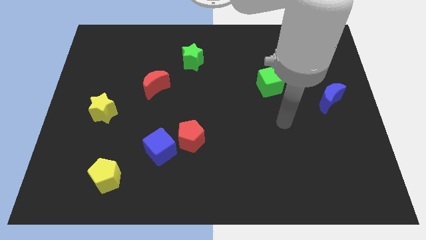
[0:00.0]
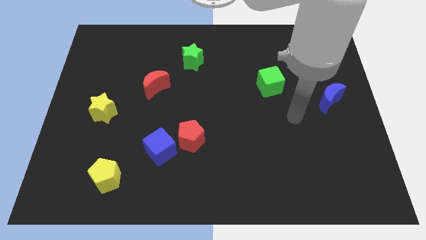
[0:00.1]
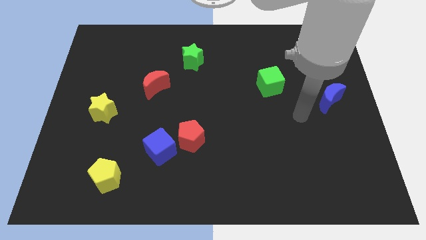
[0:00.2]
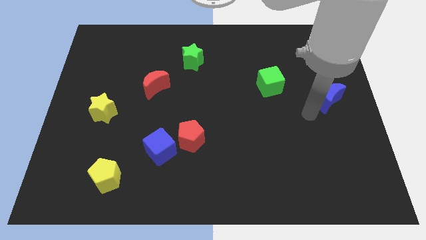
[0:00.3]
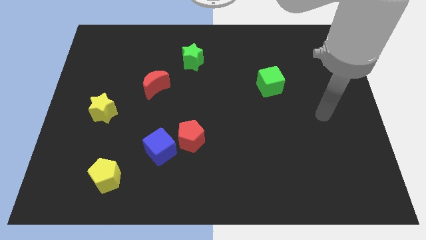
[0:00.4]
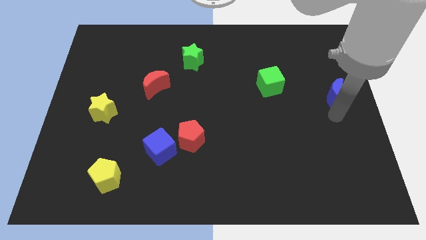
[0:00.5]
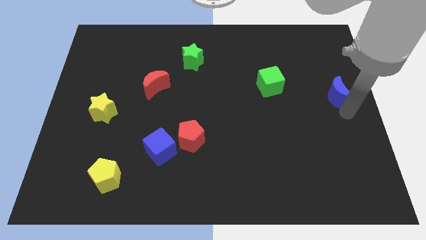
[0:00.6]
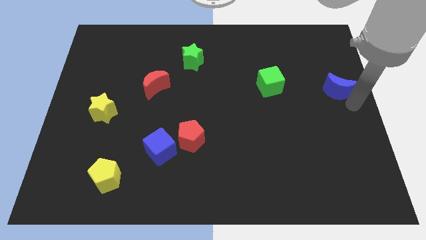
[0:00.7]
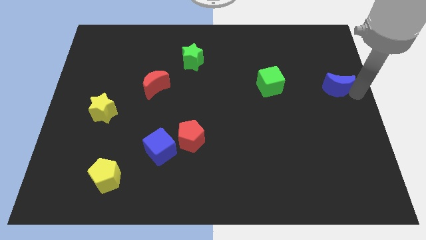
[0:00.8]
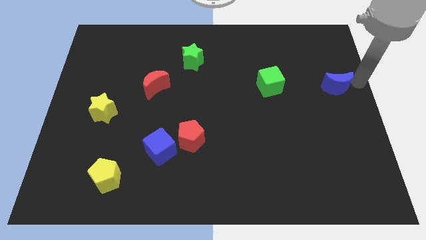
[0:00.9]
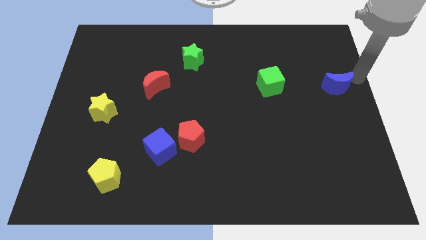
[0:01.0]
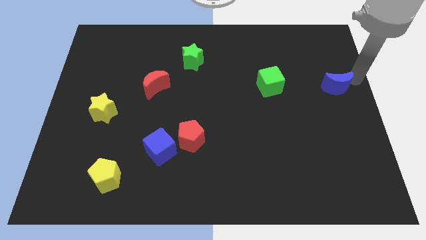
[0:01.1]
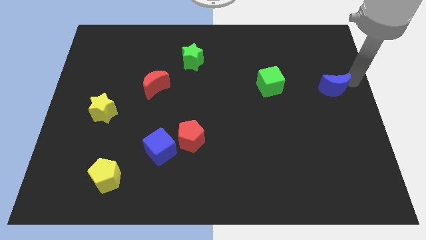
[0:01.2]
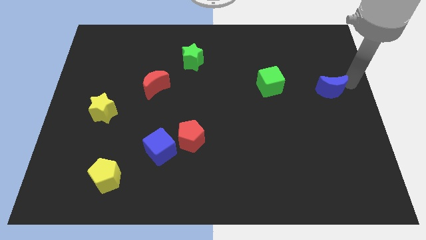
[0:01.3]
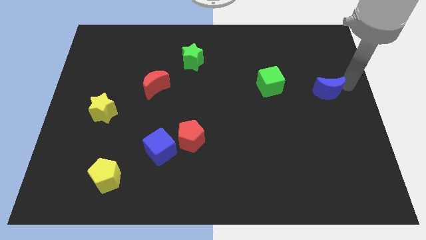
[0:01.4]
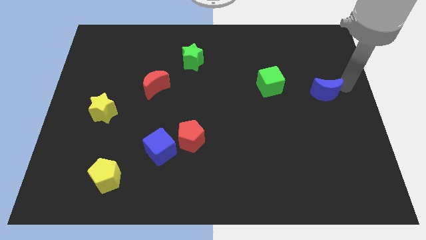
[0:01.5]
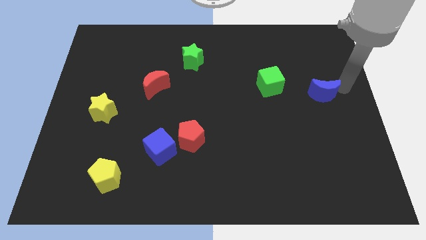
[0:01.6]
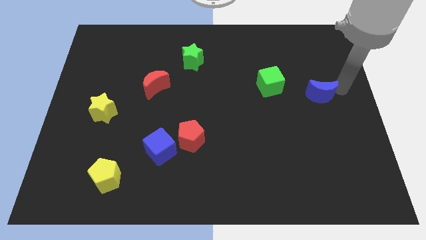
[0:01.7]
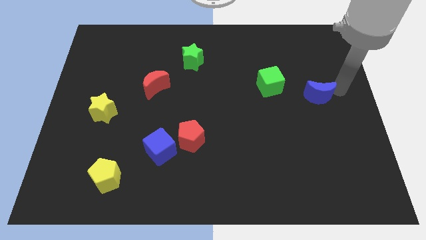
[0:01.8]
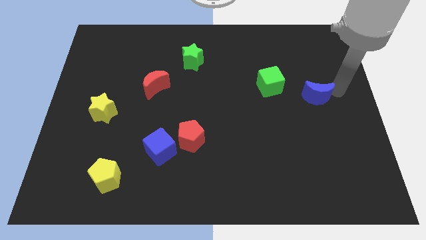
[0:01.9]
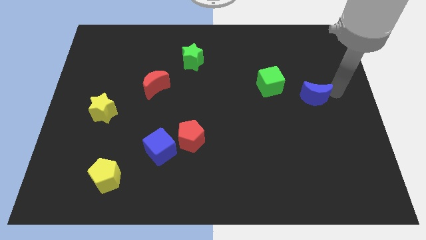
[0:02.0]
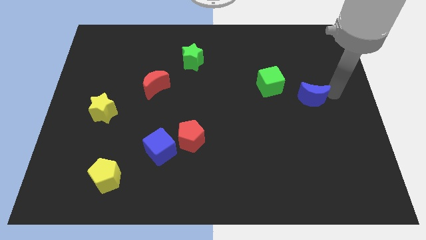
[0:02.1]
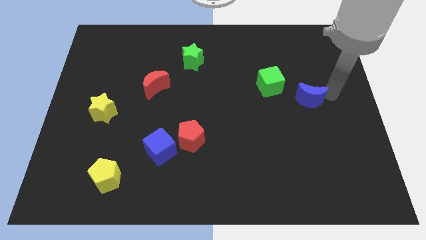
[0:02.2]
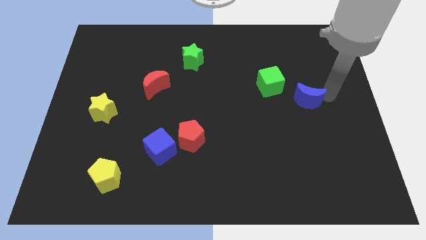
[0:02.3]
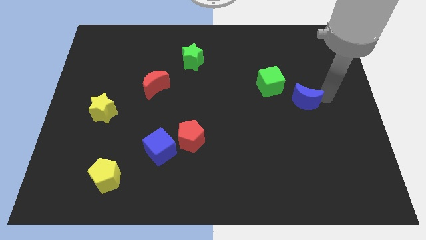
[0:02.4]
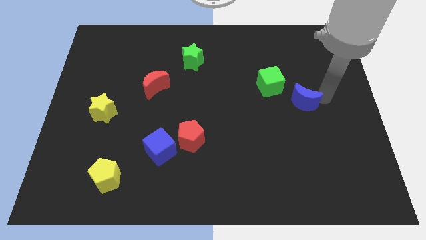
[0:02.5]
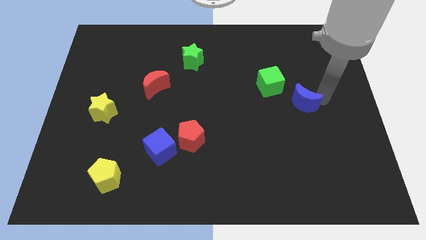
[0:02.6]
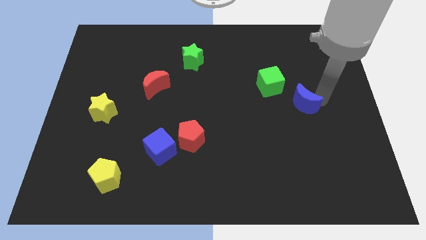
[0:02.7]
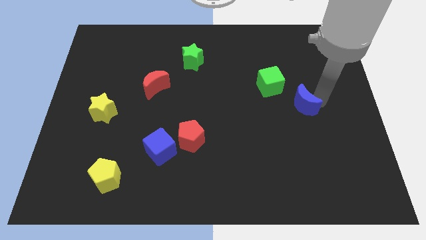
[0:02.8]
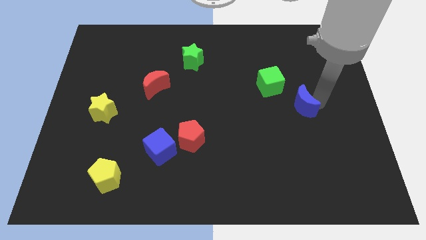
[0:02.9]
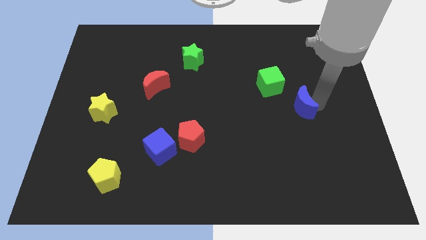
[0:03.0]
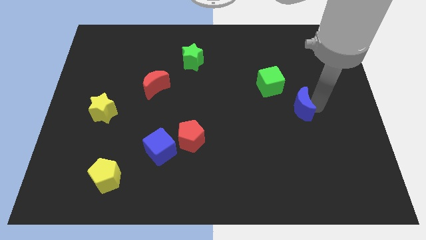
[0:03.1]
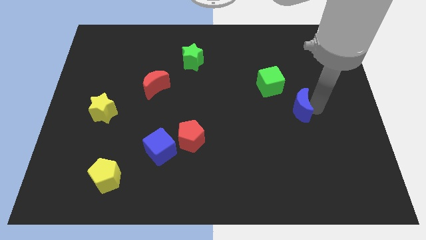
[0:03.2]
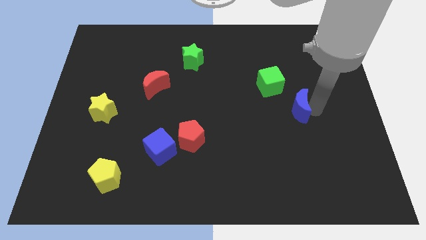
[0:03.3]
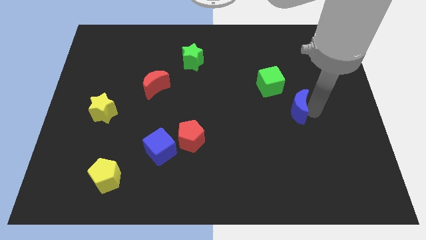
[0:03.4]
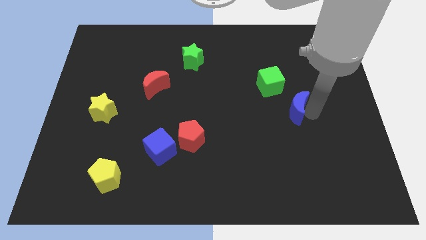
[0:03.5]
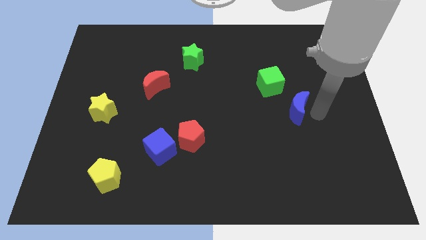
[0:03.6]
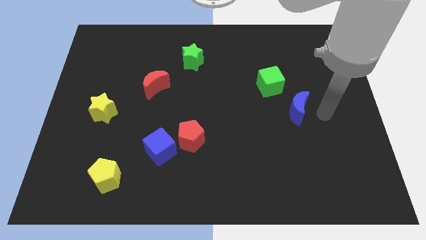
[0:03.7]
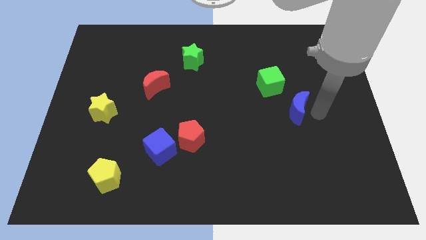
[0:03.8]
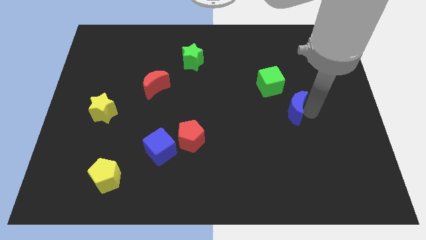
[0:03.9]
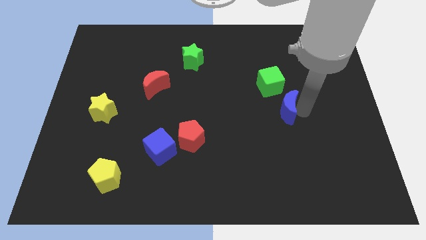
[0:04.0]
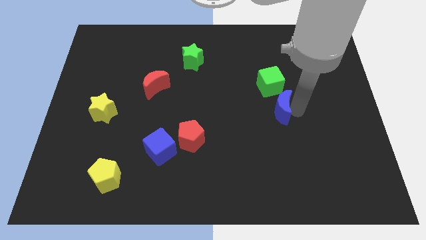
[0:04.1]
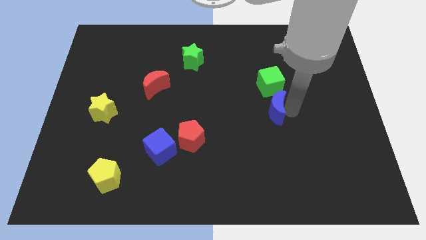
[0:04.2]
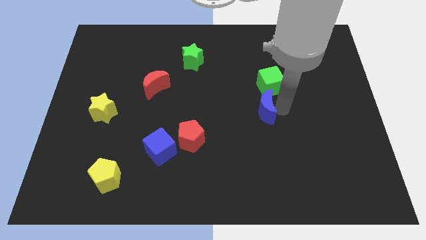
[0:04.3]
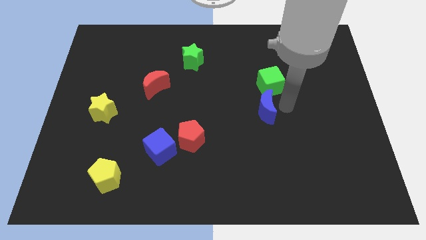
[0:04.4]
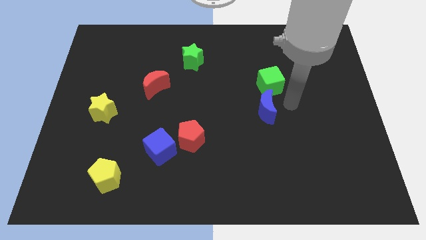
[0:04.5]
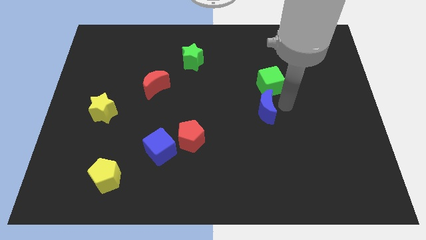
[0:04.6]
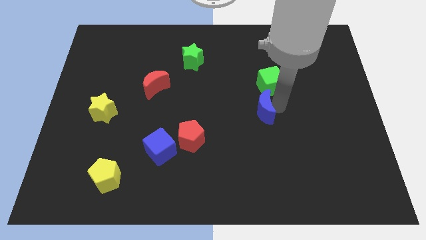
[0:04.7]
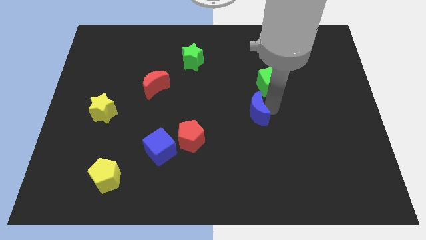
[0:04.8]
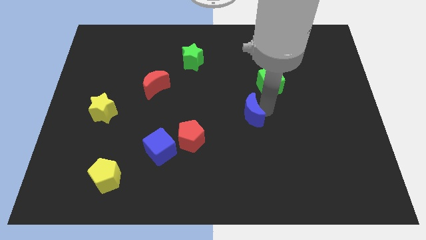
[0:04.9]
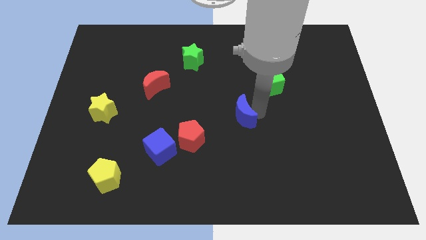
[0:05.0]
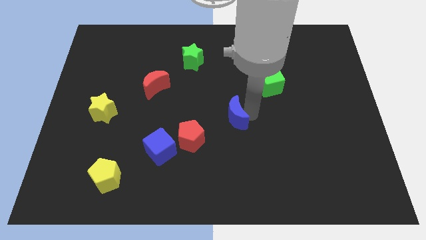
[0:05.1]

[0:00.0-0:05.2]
move the blue moon to the top right of the red pentagon

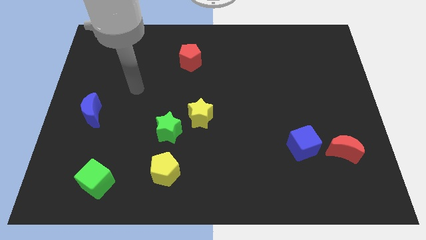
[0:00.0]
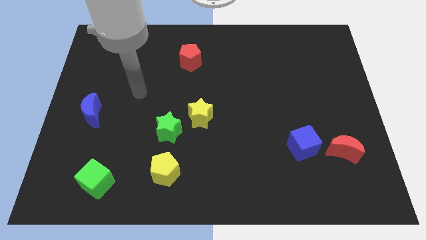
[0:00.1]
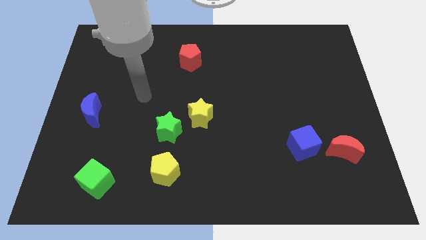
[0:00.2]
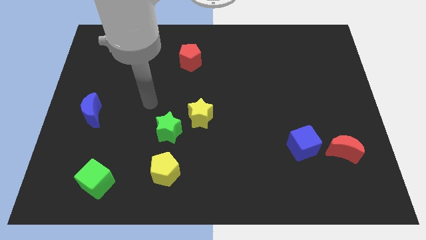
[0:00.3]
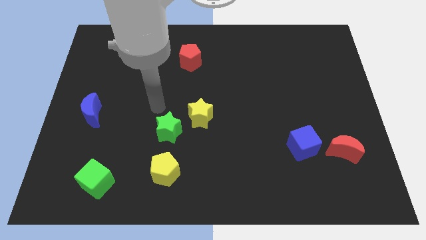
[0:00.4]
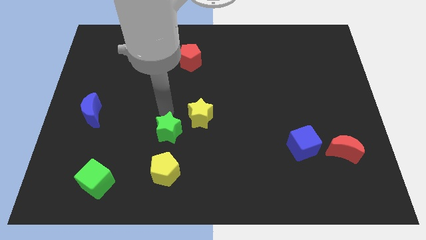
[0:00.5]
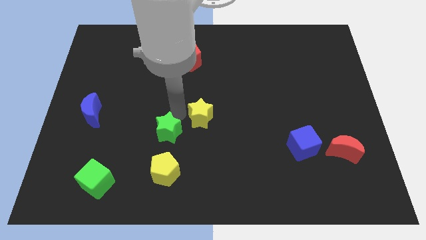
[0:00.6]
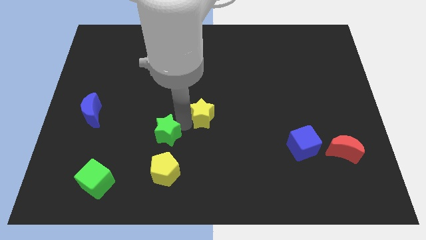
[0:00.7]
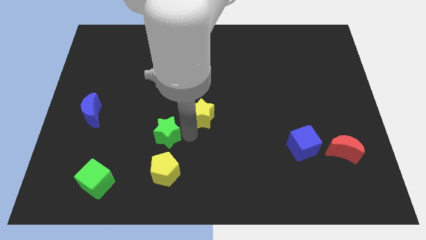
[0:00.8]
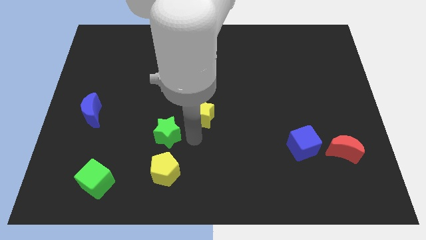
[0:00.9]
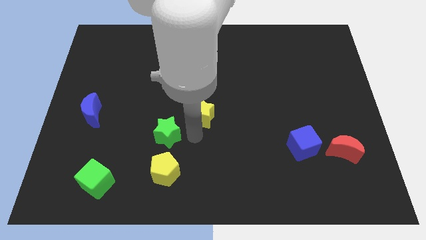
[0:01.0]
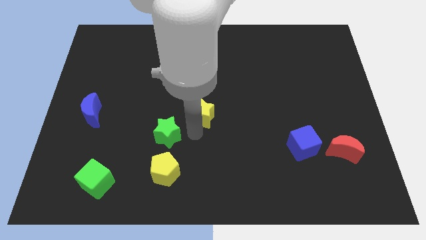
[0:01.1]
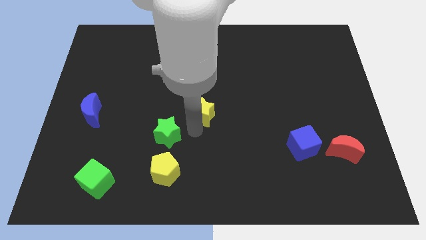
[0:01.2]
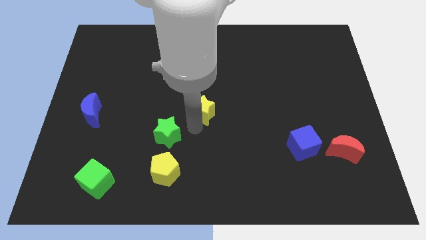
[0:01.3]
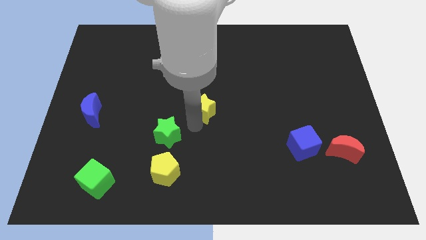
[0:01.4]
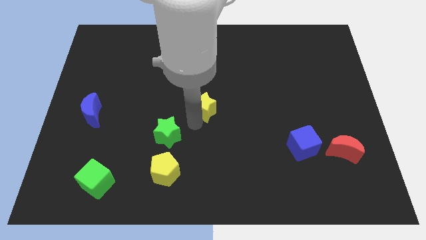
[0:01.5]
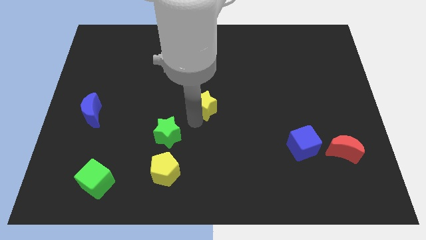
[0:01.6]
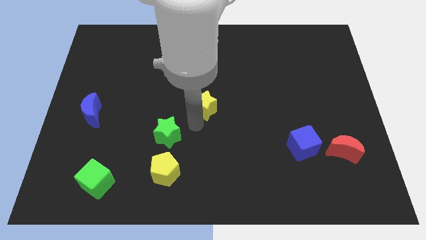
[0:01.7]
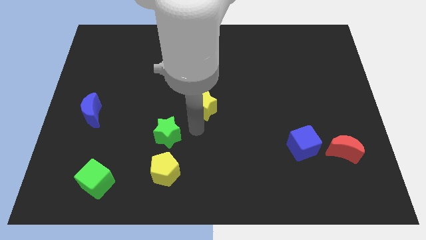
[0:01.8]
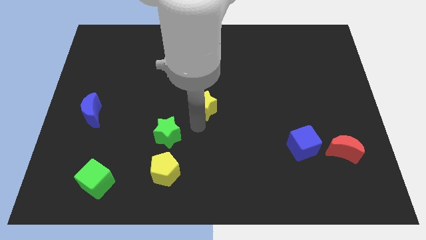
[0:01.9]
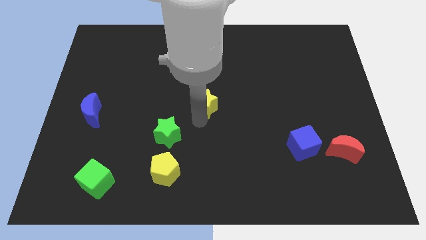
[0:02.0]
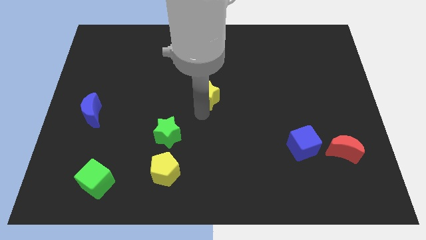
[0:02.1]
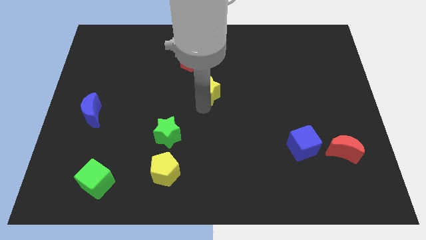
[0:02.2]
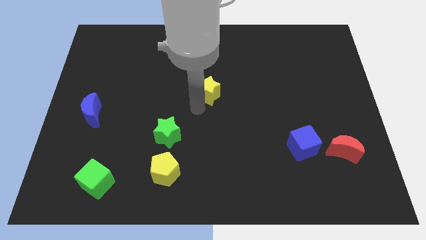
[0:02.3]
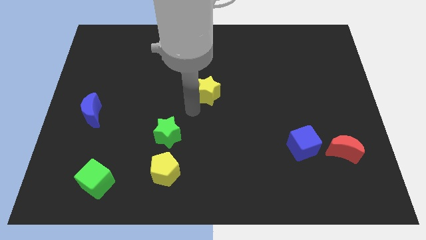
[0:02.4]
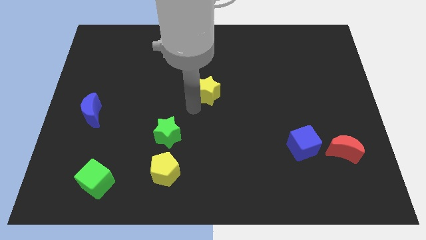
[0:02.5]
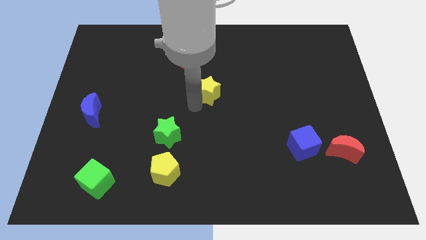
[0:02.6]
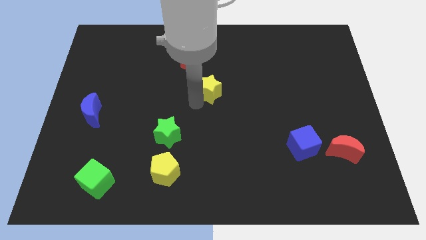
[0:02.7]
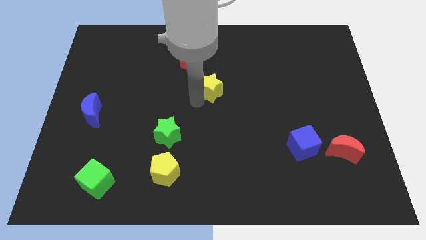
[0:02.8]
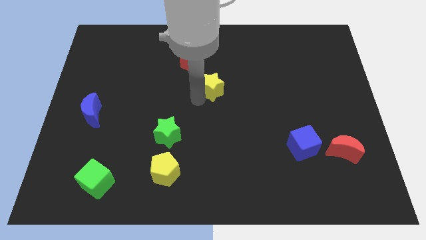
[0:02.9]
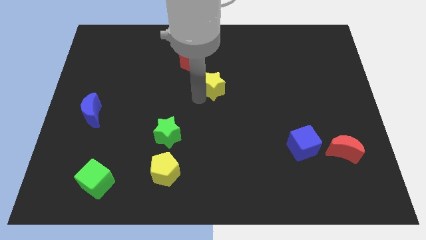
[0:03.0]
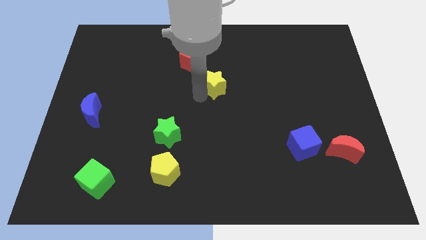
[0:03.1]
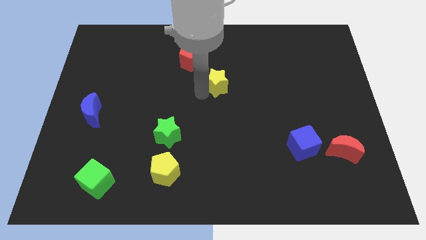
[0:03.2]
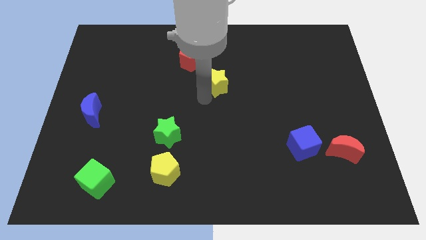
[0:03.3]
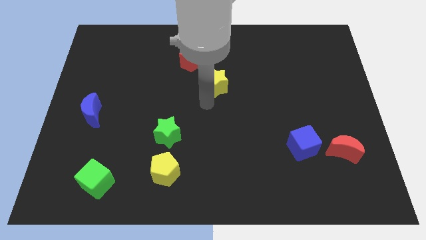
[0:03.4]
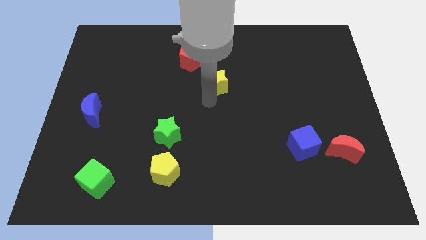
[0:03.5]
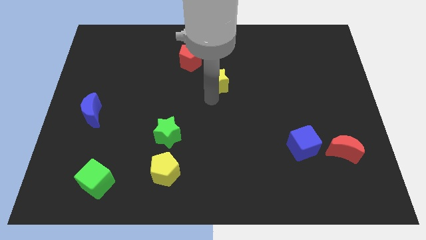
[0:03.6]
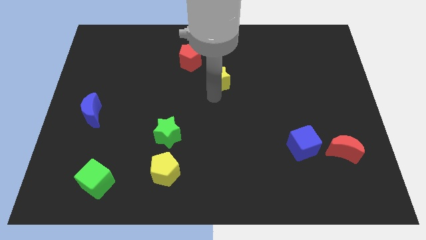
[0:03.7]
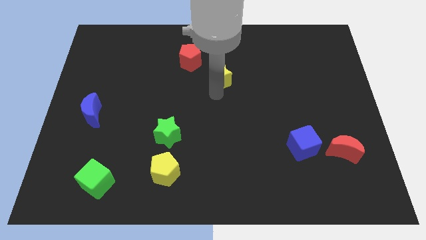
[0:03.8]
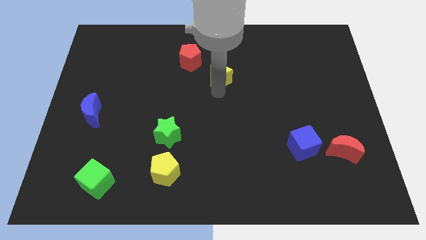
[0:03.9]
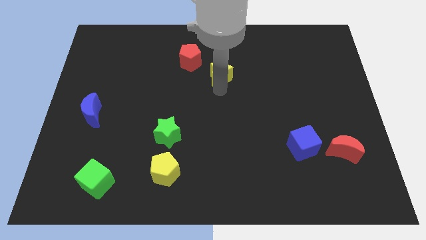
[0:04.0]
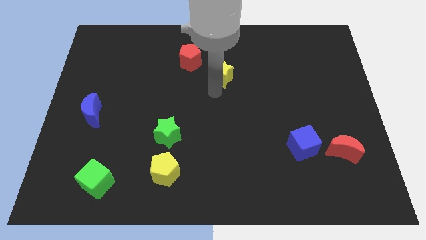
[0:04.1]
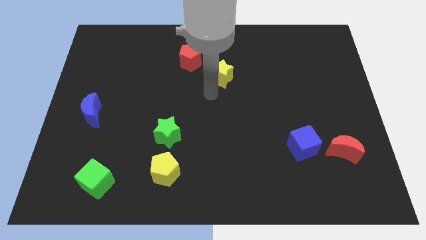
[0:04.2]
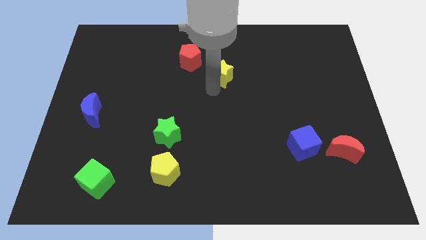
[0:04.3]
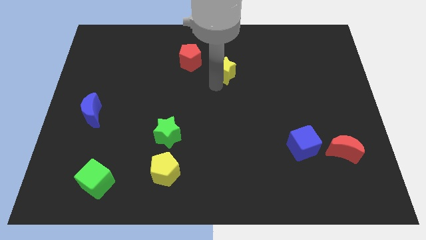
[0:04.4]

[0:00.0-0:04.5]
push the yellow star to the right side of the red pentagon
